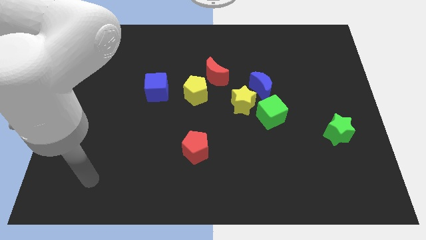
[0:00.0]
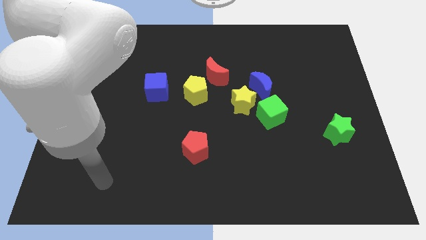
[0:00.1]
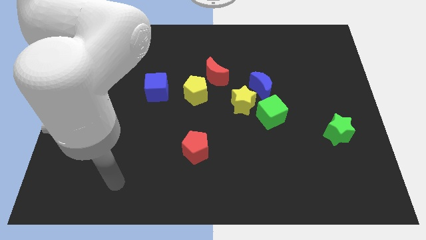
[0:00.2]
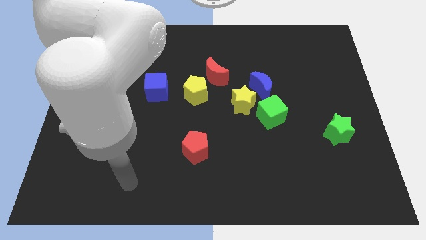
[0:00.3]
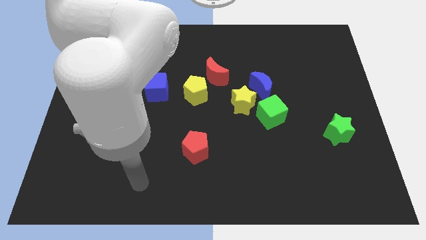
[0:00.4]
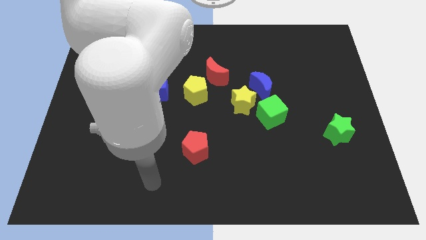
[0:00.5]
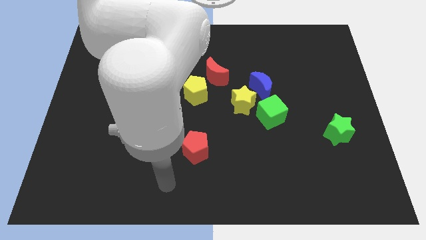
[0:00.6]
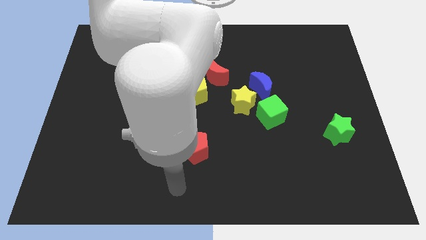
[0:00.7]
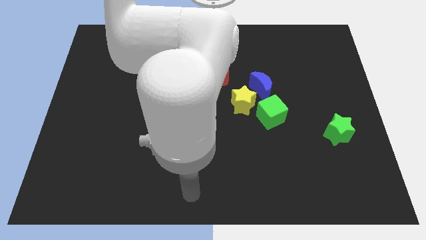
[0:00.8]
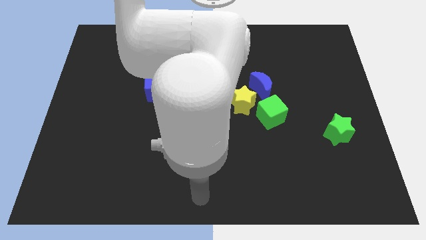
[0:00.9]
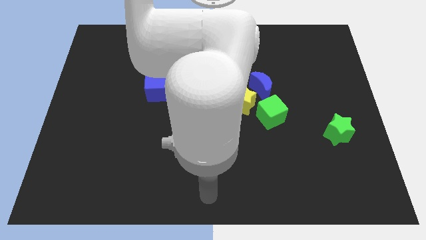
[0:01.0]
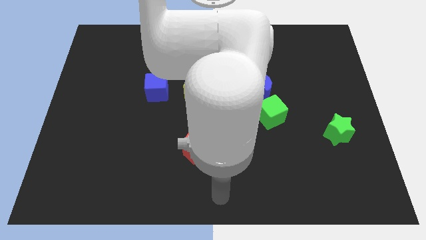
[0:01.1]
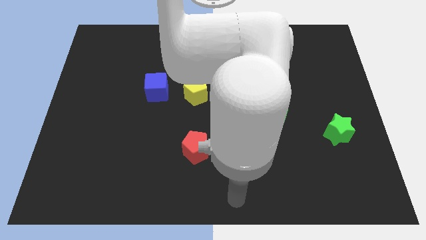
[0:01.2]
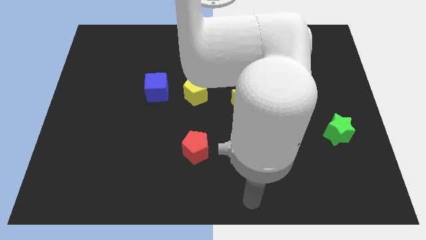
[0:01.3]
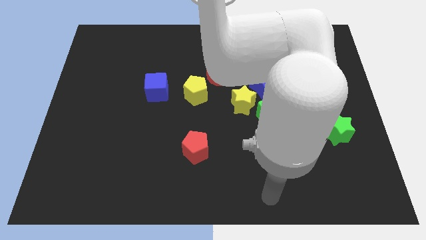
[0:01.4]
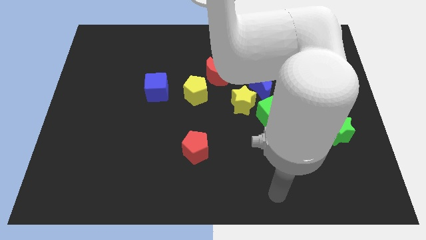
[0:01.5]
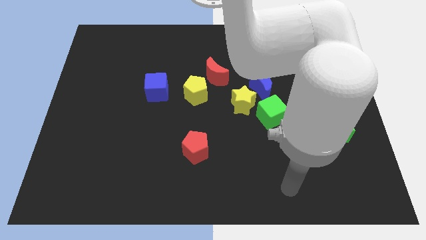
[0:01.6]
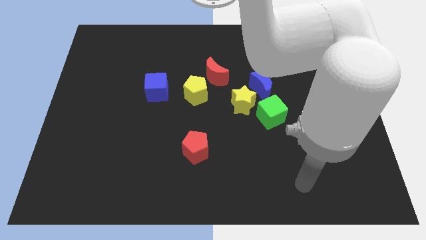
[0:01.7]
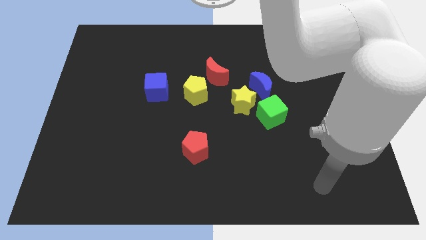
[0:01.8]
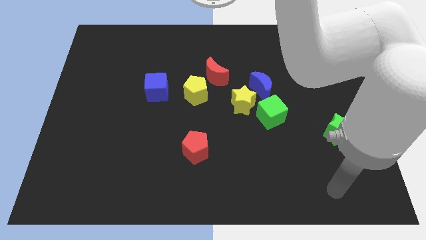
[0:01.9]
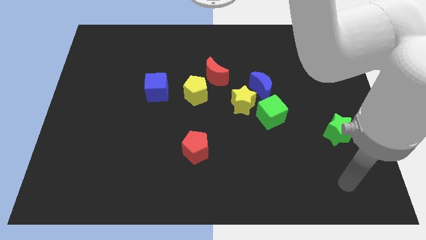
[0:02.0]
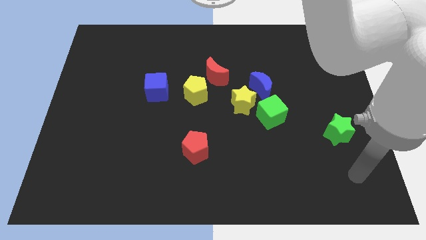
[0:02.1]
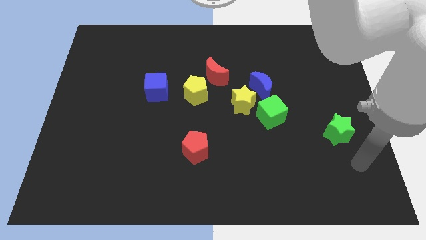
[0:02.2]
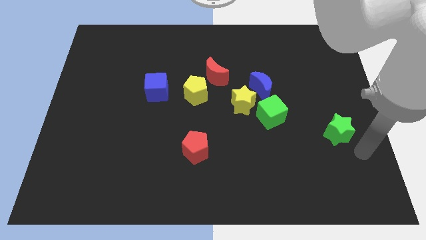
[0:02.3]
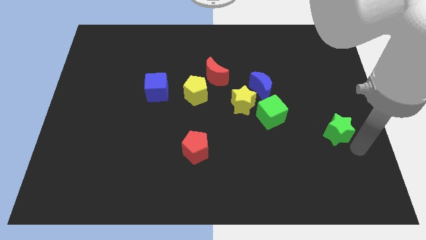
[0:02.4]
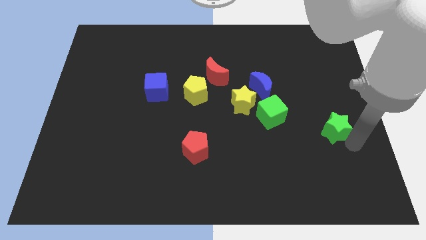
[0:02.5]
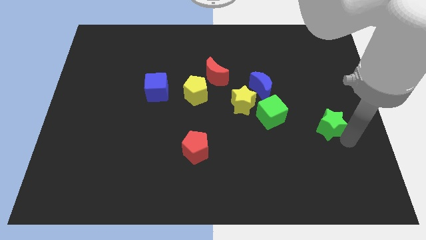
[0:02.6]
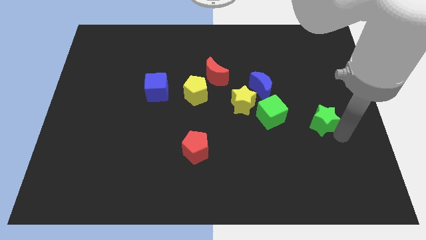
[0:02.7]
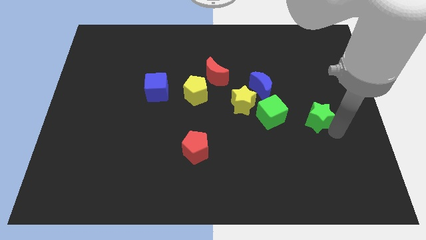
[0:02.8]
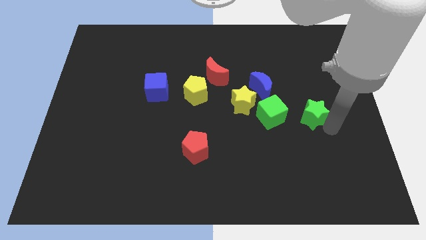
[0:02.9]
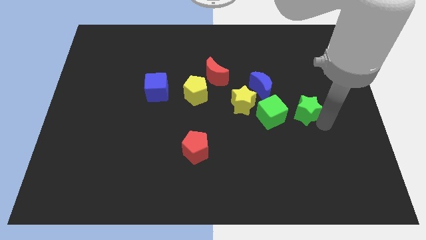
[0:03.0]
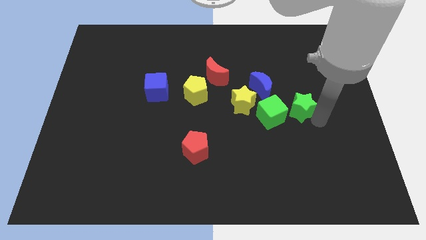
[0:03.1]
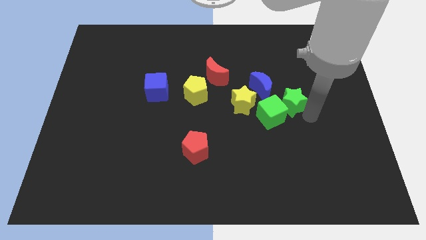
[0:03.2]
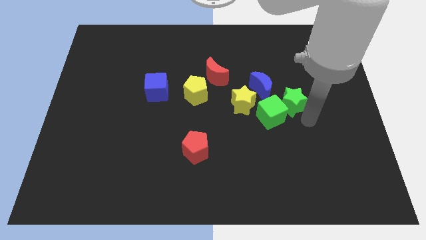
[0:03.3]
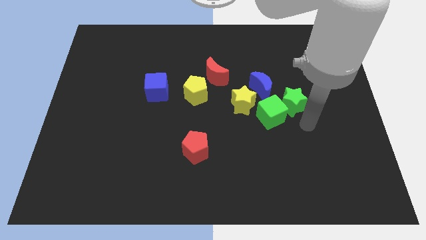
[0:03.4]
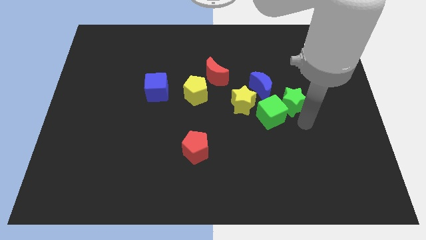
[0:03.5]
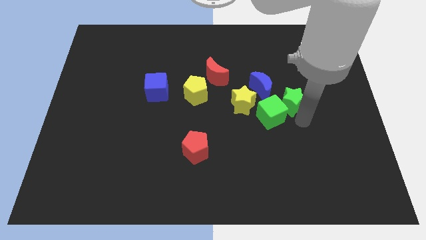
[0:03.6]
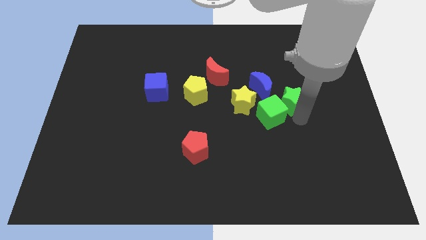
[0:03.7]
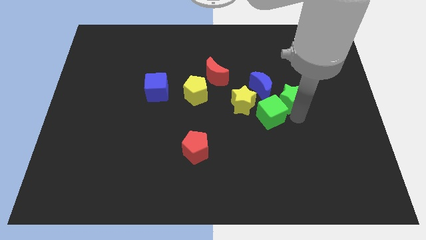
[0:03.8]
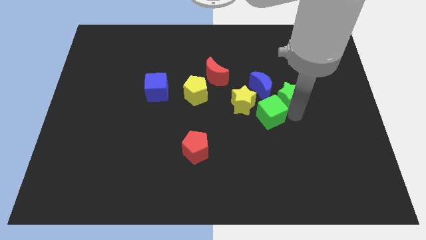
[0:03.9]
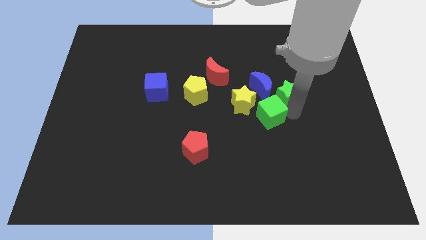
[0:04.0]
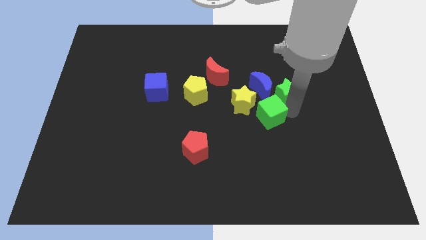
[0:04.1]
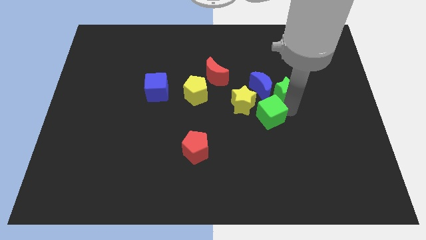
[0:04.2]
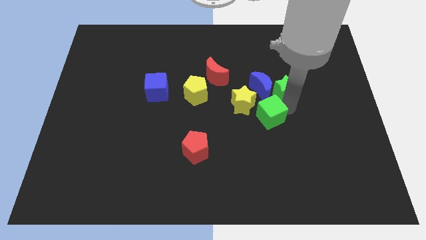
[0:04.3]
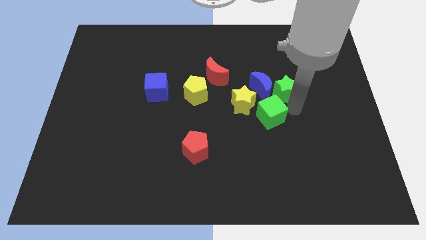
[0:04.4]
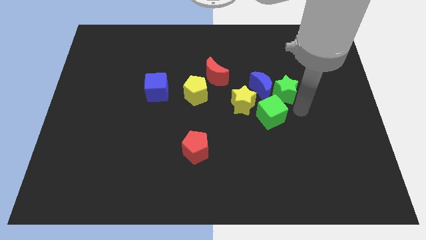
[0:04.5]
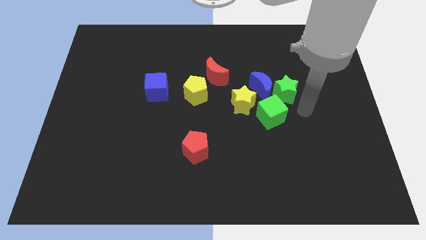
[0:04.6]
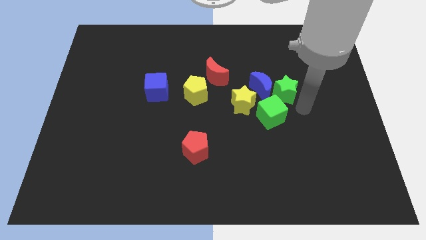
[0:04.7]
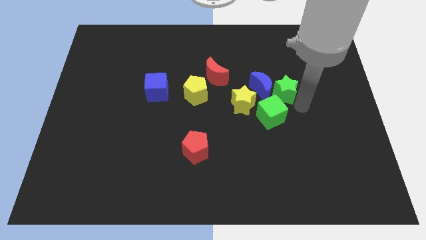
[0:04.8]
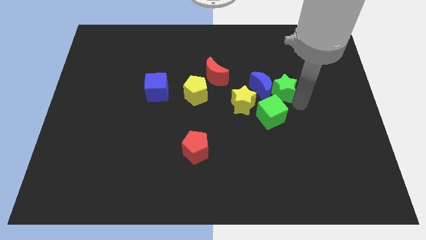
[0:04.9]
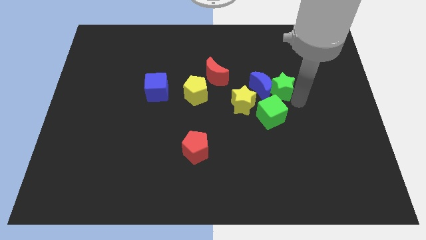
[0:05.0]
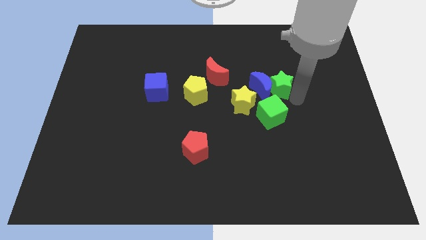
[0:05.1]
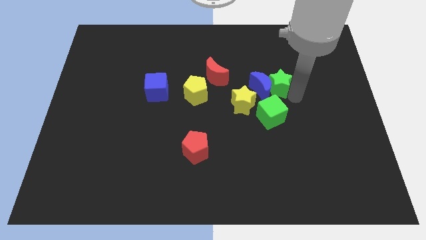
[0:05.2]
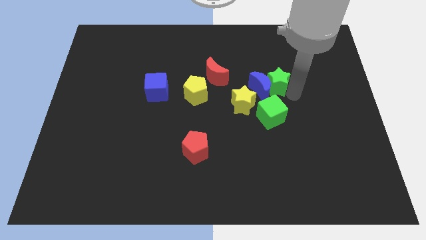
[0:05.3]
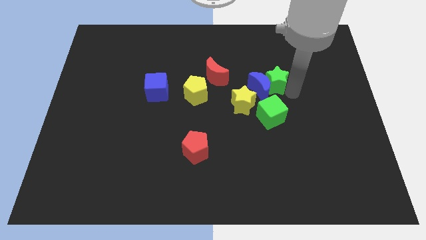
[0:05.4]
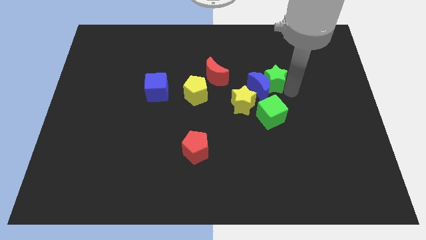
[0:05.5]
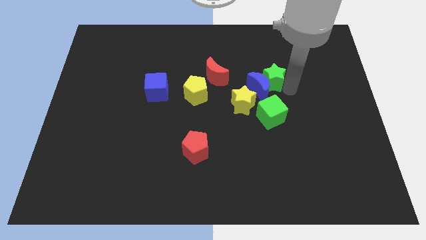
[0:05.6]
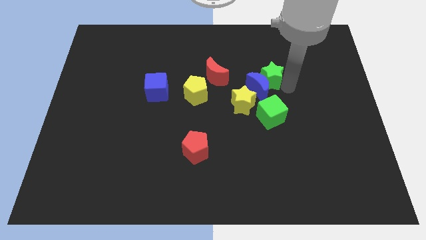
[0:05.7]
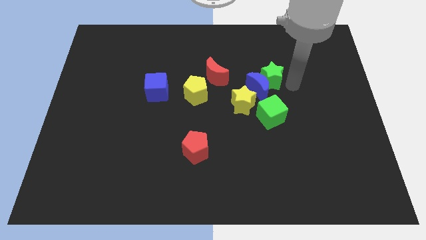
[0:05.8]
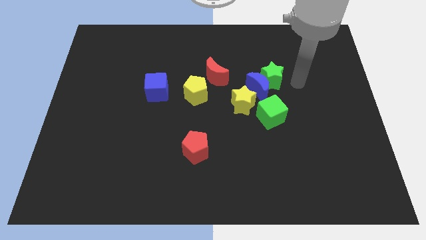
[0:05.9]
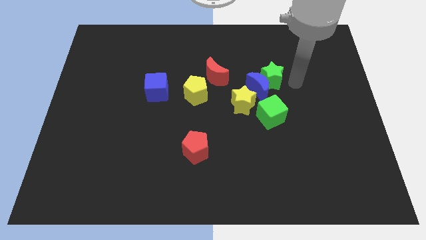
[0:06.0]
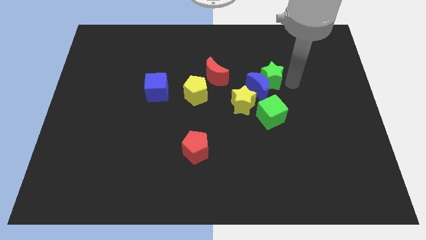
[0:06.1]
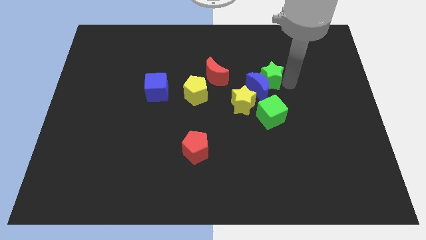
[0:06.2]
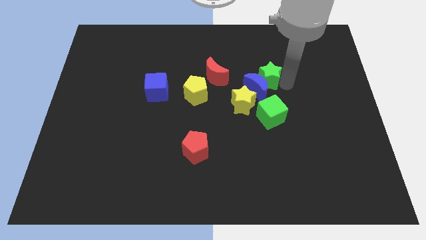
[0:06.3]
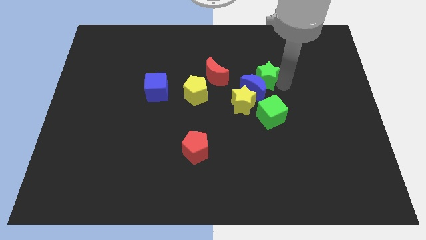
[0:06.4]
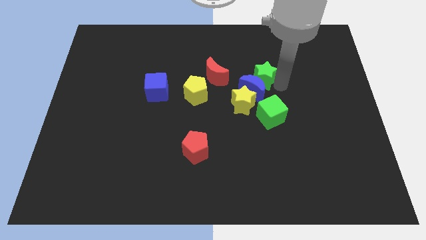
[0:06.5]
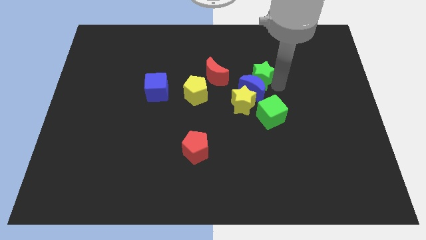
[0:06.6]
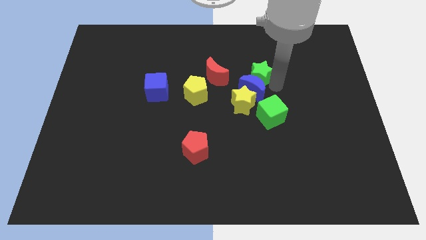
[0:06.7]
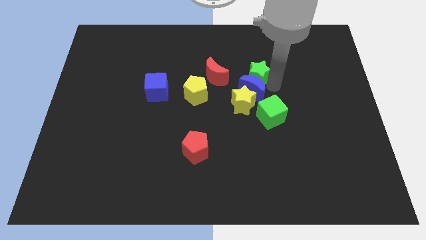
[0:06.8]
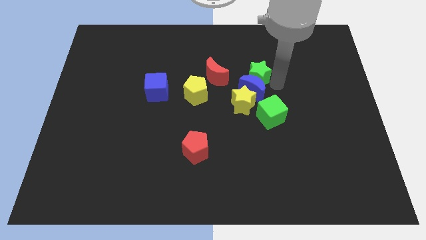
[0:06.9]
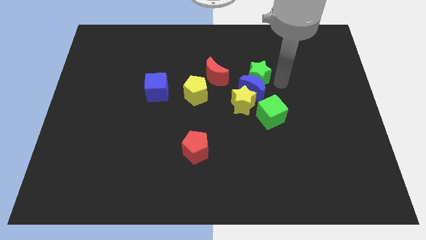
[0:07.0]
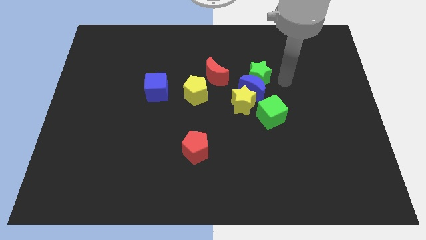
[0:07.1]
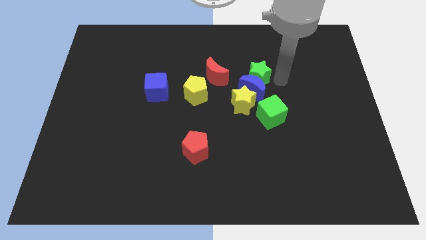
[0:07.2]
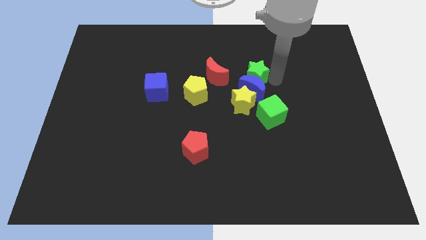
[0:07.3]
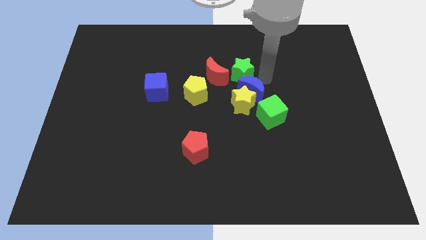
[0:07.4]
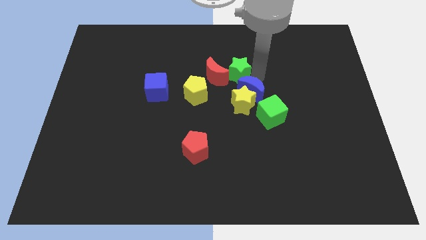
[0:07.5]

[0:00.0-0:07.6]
put the green star to the red moon
